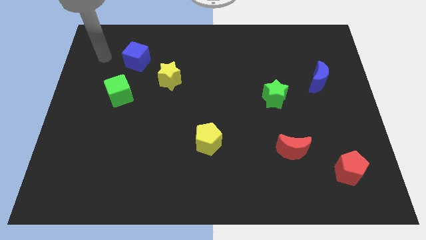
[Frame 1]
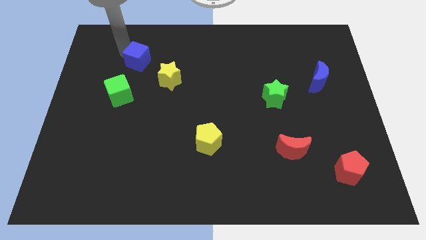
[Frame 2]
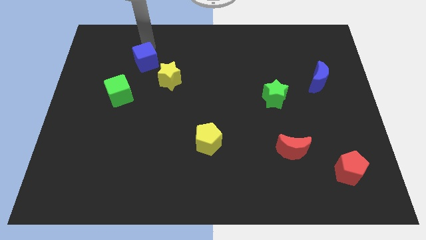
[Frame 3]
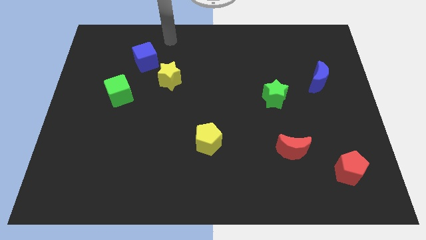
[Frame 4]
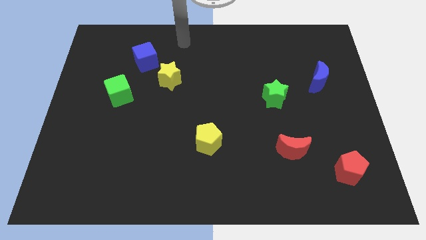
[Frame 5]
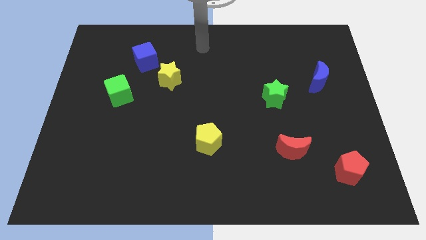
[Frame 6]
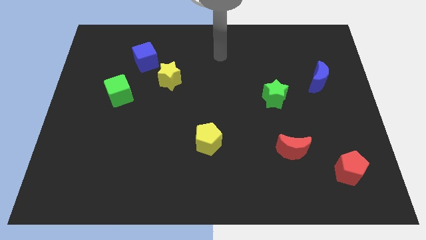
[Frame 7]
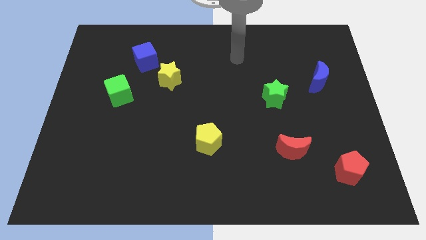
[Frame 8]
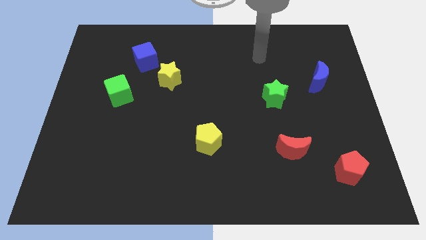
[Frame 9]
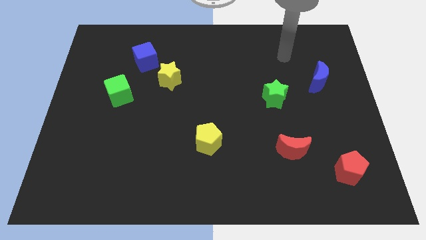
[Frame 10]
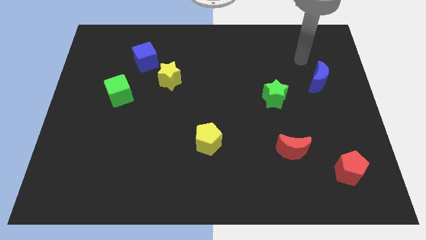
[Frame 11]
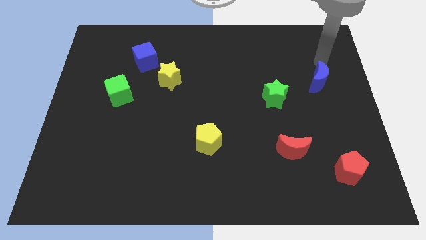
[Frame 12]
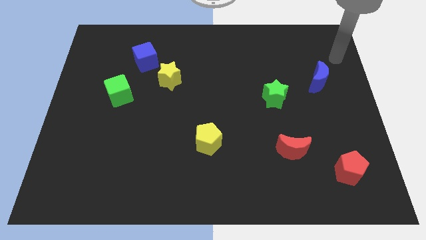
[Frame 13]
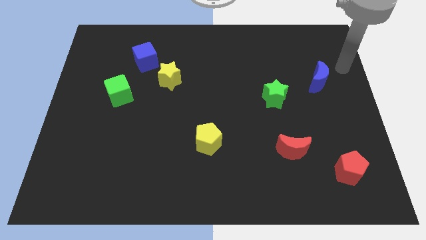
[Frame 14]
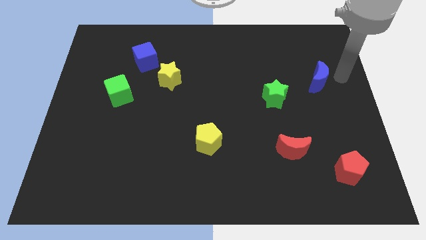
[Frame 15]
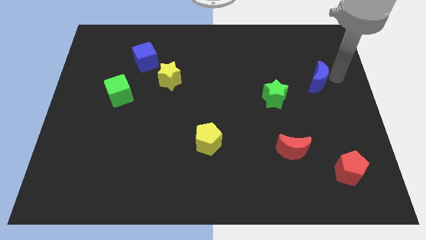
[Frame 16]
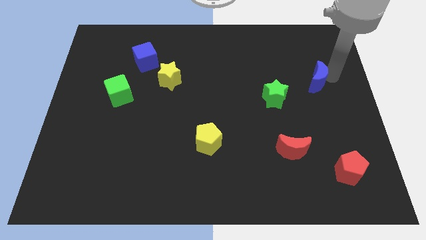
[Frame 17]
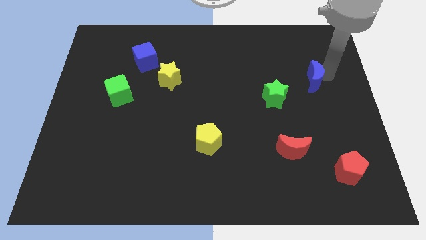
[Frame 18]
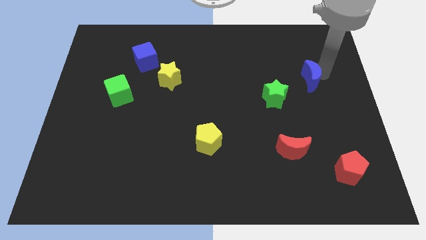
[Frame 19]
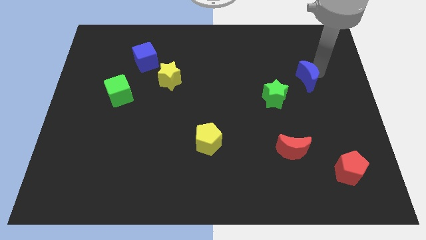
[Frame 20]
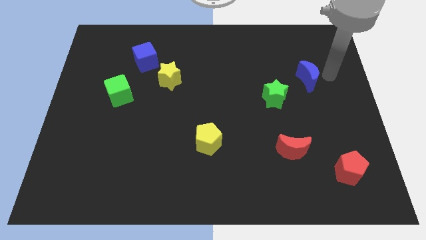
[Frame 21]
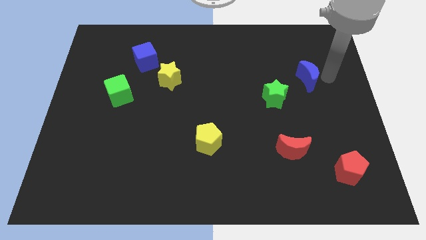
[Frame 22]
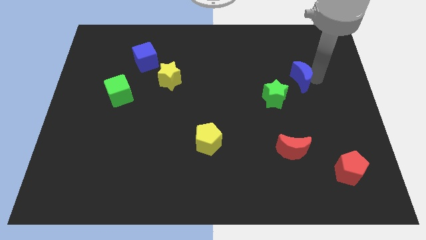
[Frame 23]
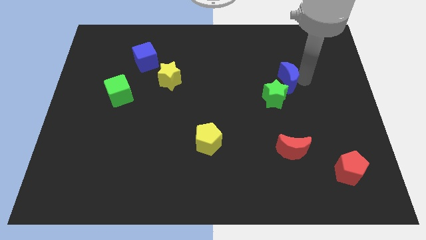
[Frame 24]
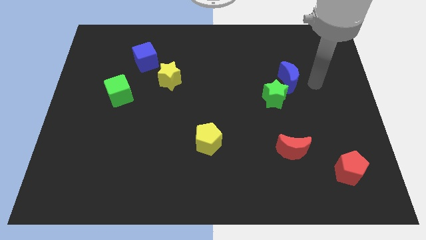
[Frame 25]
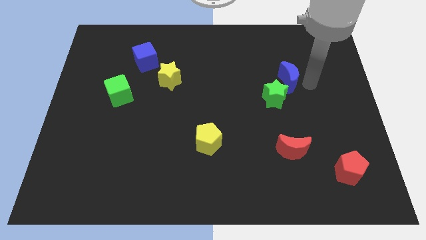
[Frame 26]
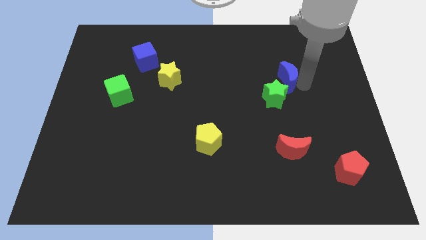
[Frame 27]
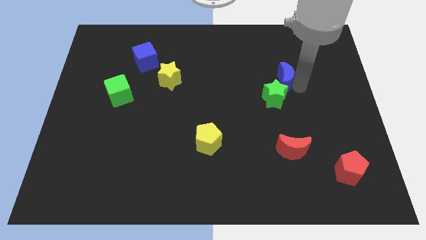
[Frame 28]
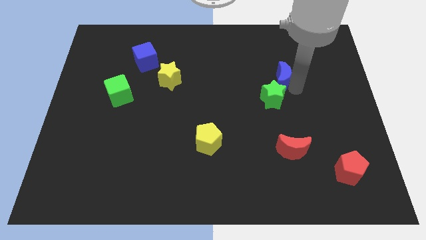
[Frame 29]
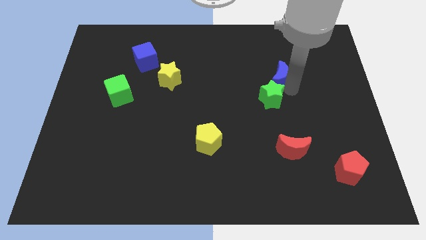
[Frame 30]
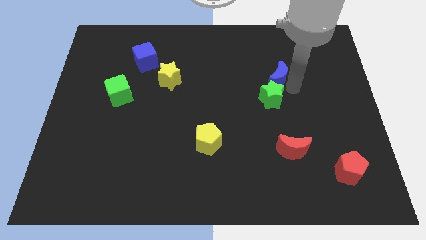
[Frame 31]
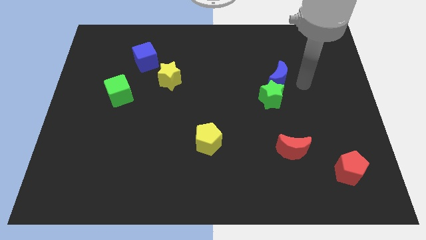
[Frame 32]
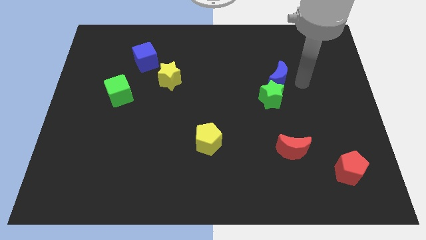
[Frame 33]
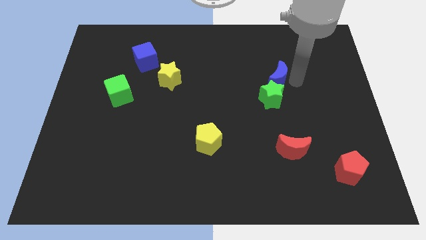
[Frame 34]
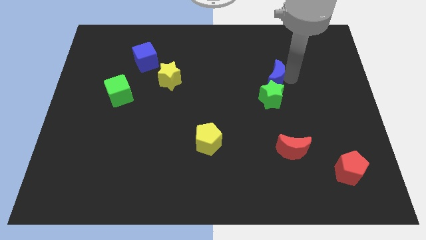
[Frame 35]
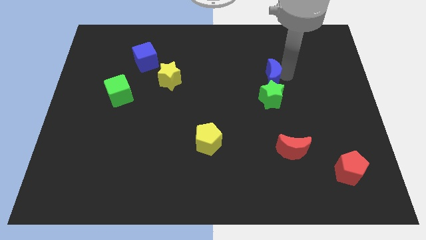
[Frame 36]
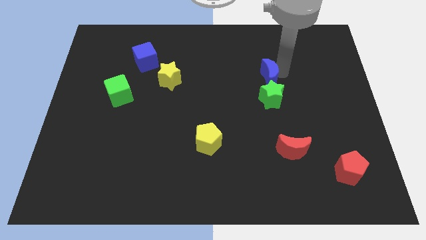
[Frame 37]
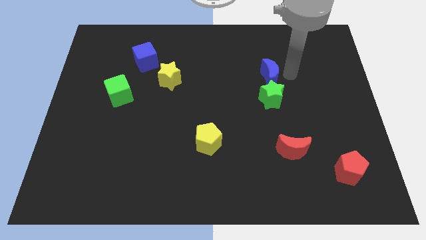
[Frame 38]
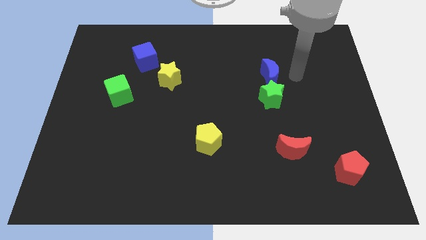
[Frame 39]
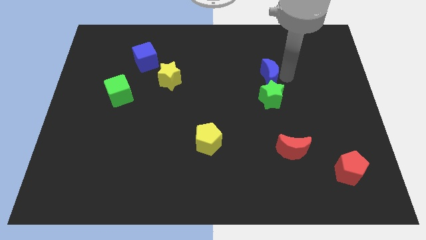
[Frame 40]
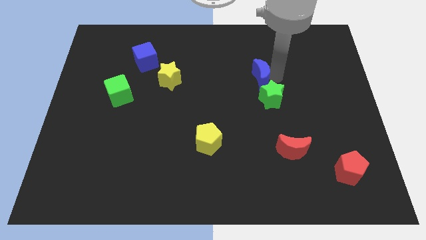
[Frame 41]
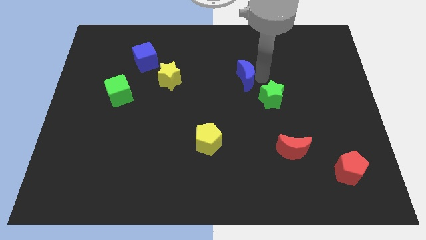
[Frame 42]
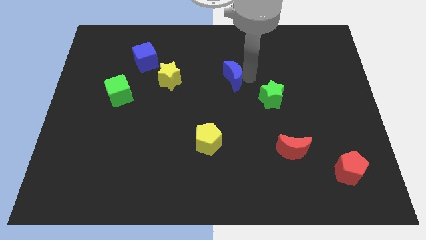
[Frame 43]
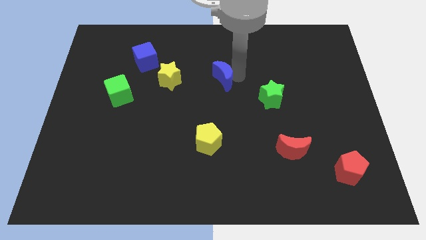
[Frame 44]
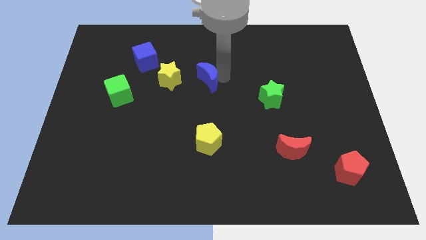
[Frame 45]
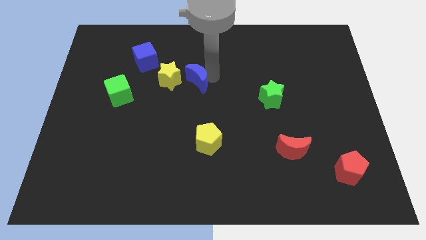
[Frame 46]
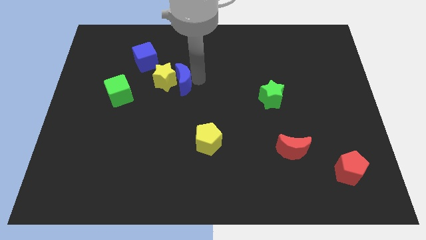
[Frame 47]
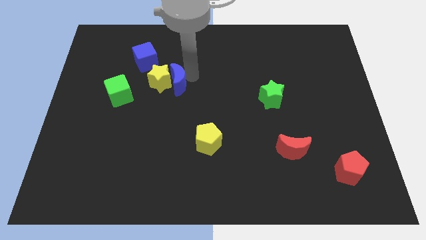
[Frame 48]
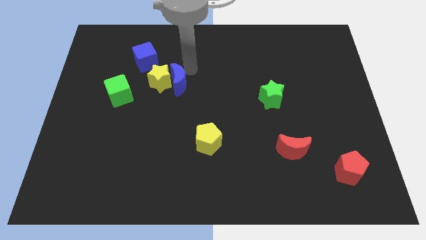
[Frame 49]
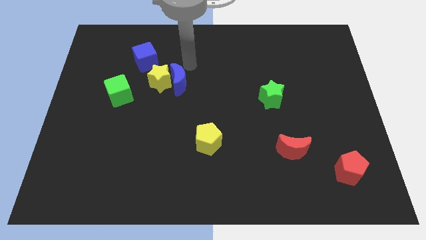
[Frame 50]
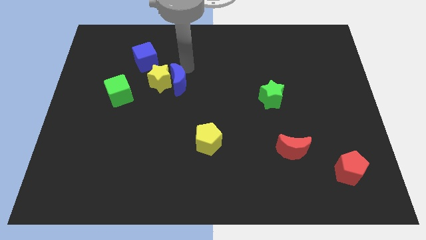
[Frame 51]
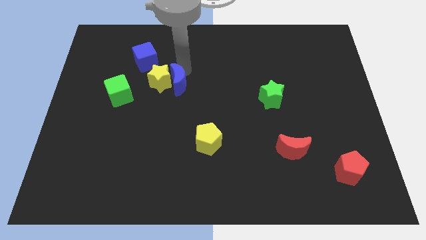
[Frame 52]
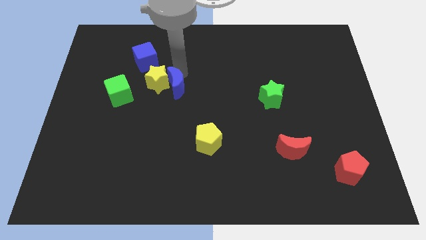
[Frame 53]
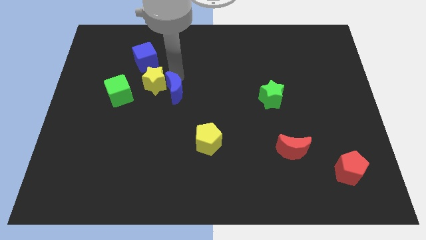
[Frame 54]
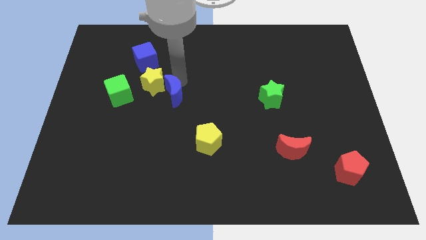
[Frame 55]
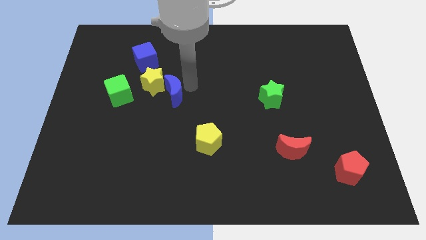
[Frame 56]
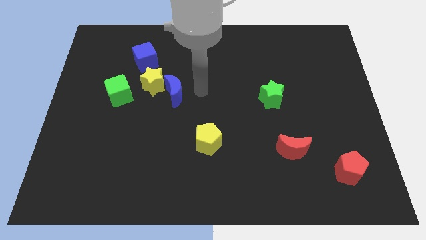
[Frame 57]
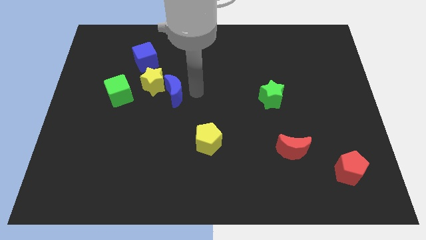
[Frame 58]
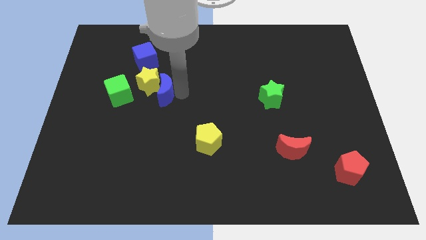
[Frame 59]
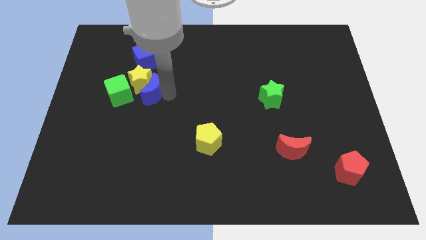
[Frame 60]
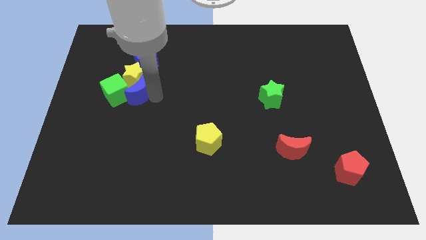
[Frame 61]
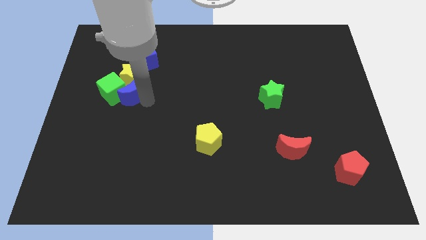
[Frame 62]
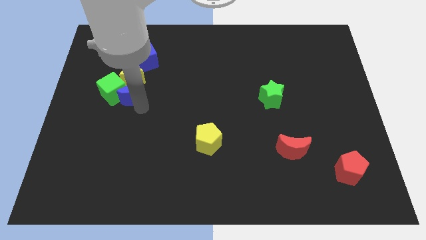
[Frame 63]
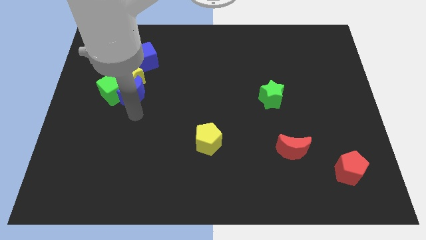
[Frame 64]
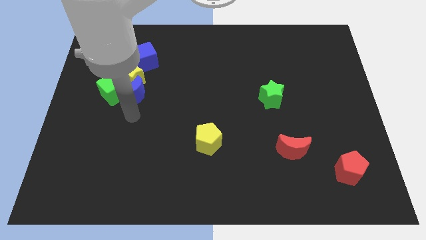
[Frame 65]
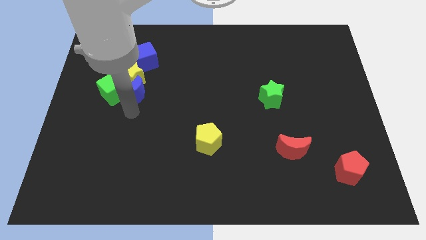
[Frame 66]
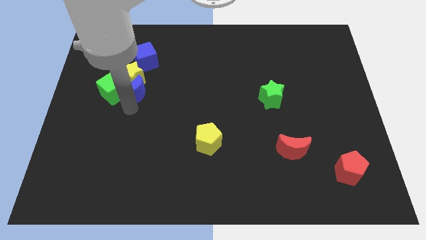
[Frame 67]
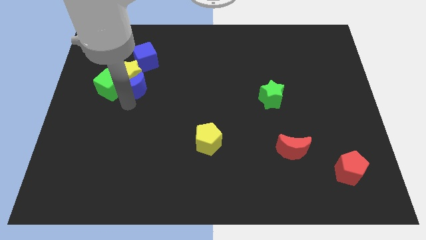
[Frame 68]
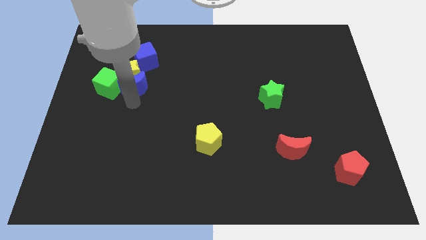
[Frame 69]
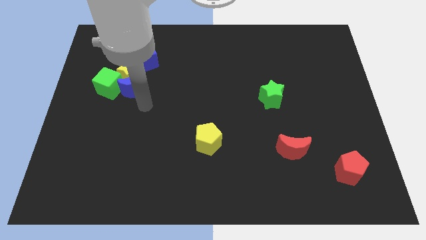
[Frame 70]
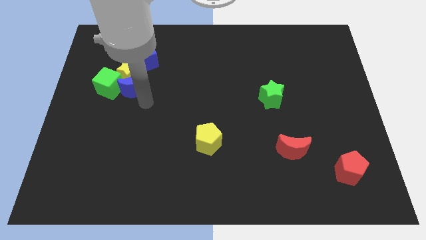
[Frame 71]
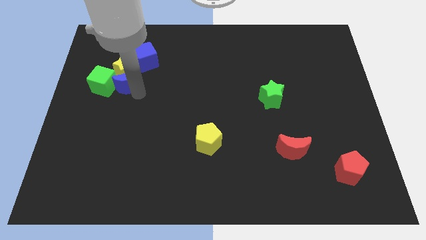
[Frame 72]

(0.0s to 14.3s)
put the blue moon to the bottom left of the blue cube
